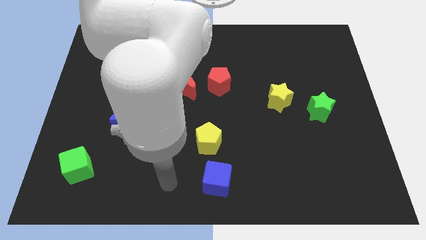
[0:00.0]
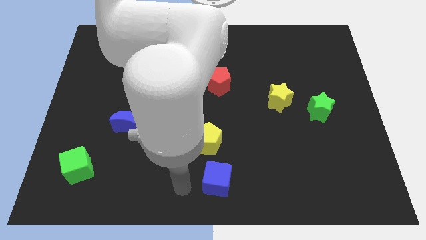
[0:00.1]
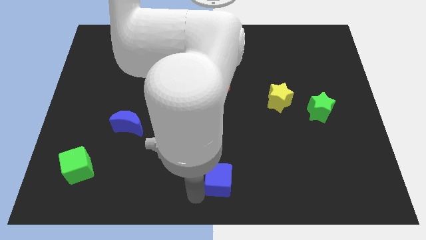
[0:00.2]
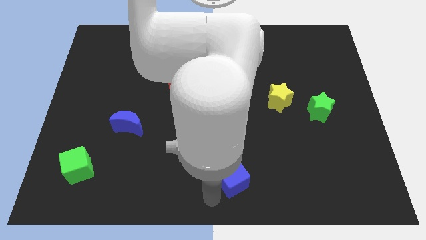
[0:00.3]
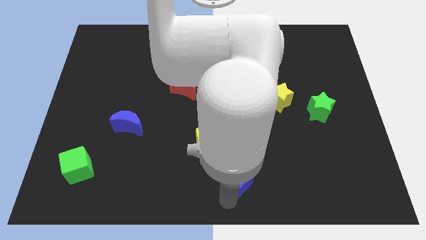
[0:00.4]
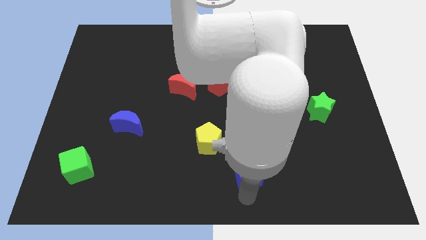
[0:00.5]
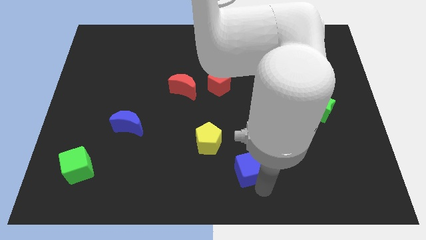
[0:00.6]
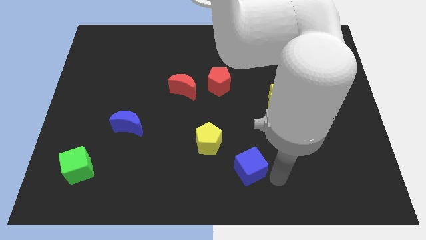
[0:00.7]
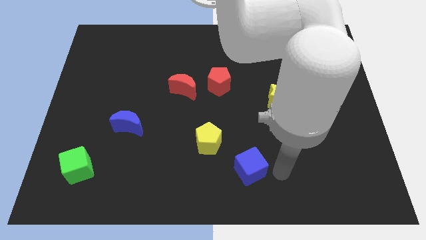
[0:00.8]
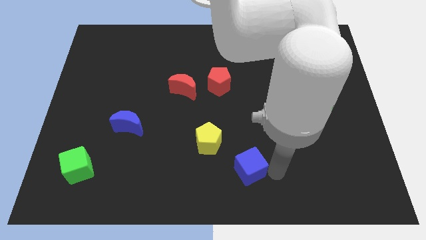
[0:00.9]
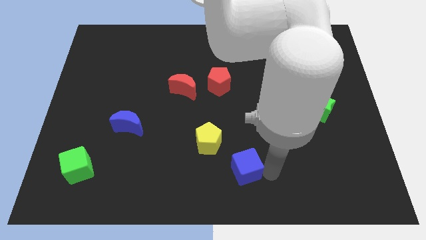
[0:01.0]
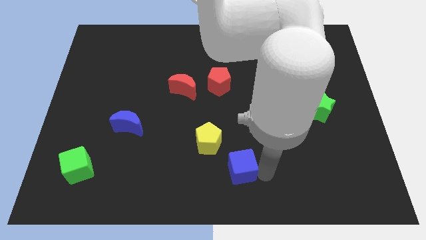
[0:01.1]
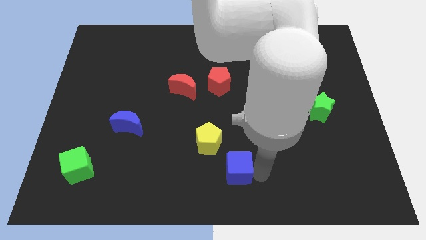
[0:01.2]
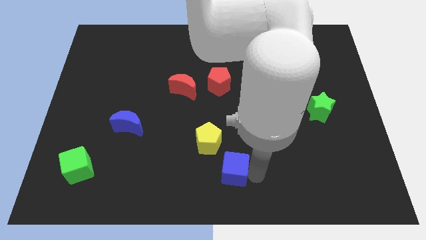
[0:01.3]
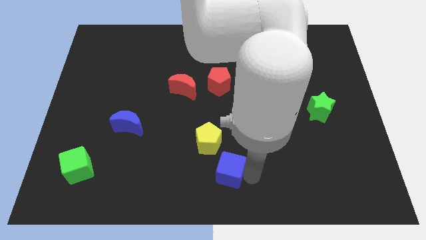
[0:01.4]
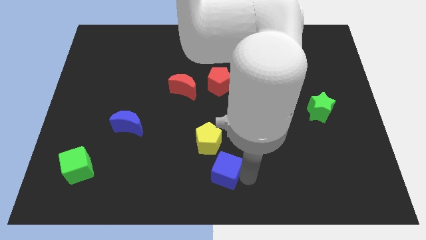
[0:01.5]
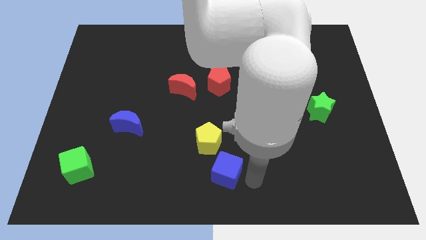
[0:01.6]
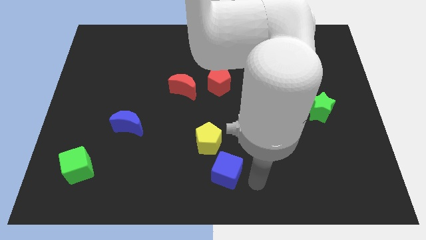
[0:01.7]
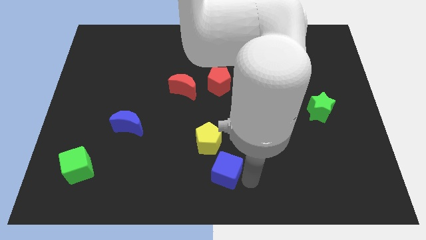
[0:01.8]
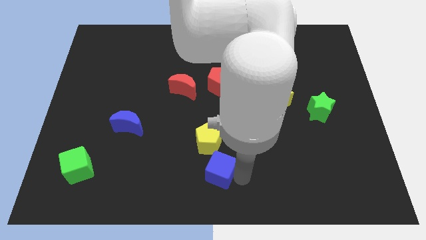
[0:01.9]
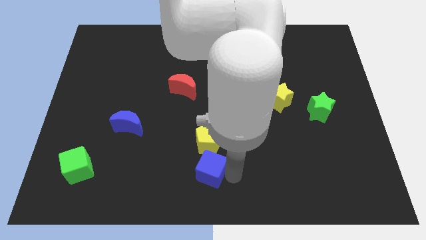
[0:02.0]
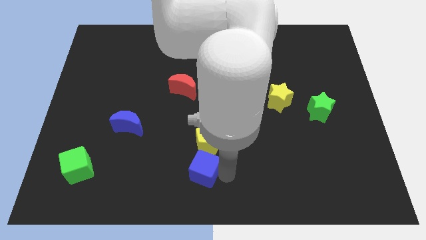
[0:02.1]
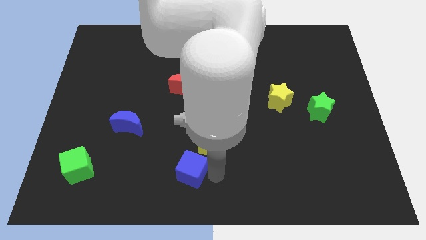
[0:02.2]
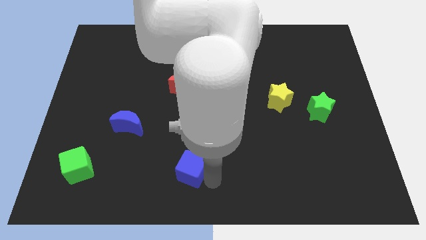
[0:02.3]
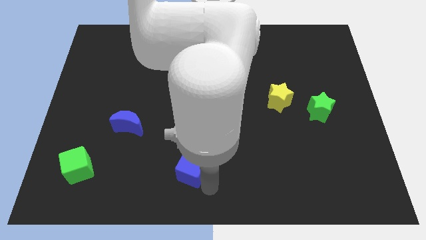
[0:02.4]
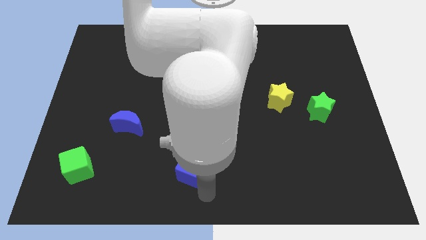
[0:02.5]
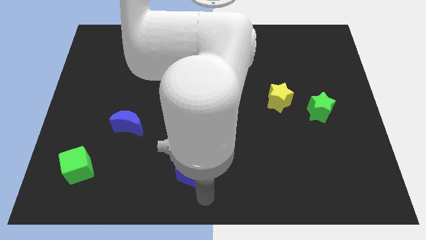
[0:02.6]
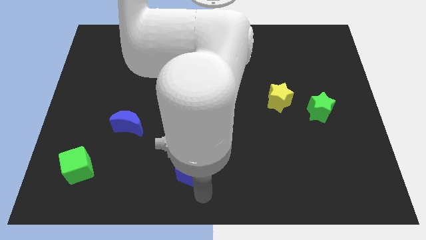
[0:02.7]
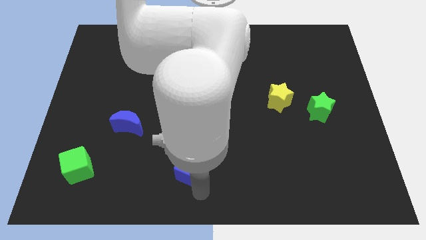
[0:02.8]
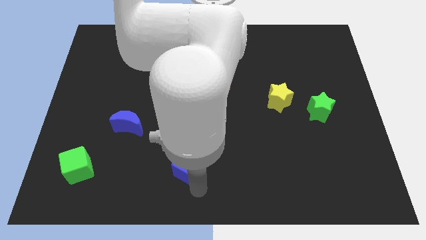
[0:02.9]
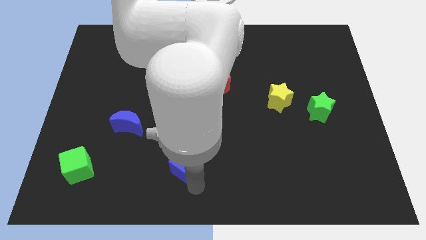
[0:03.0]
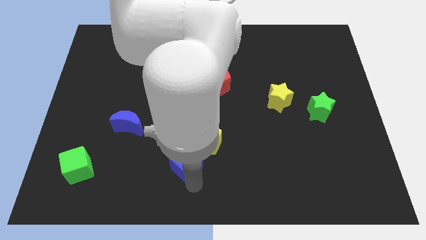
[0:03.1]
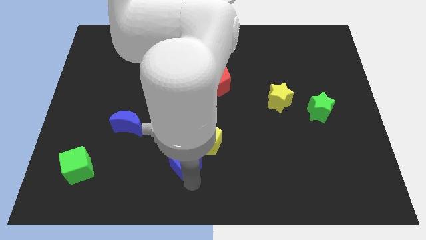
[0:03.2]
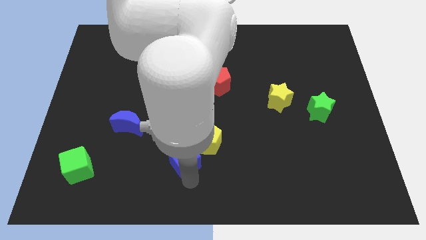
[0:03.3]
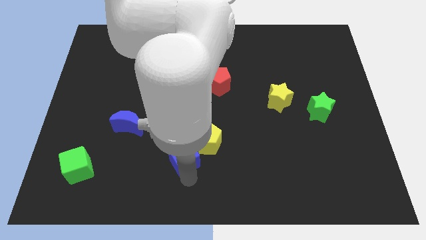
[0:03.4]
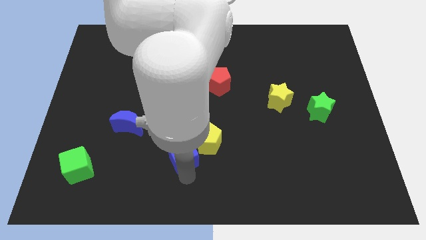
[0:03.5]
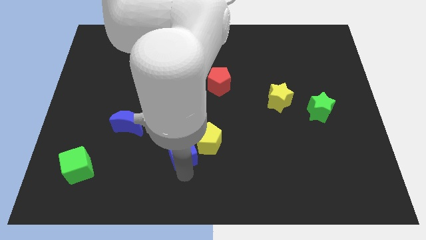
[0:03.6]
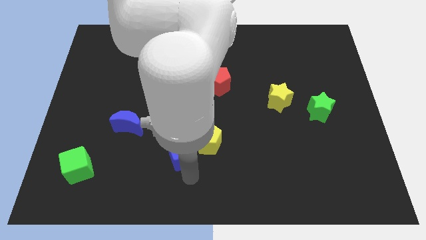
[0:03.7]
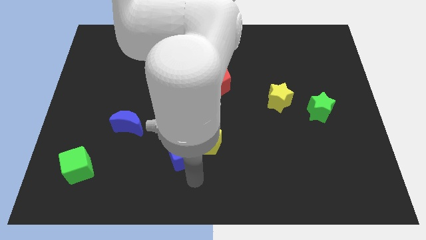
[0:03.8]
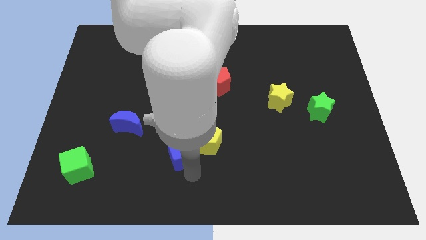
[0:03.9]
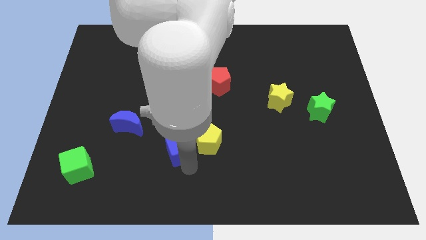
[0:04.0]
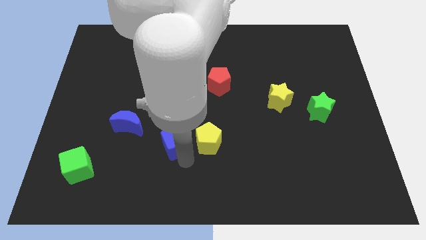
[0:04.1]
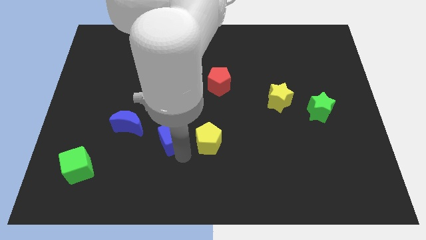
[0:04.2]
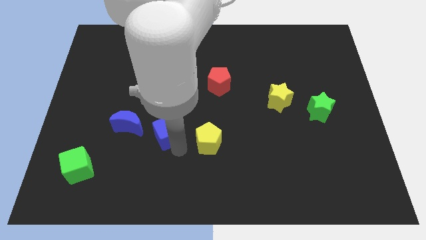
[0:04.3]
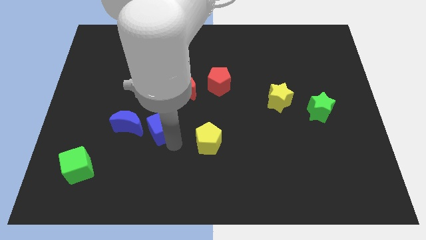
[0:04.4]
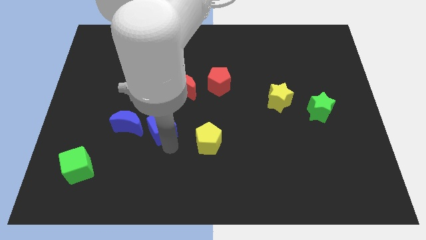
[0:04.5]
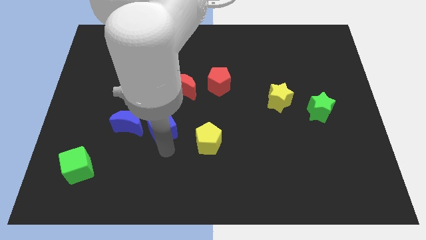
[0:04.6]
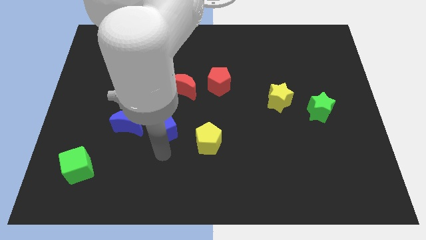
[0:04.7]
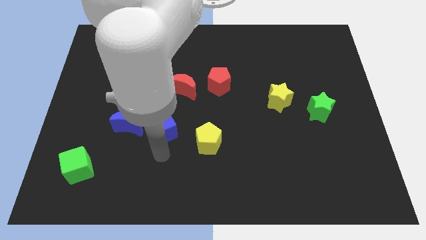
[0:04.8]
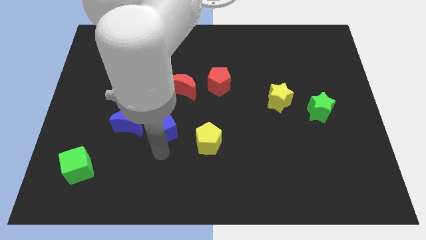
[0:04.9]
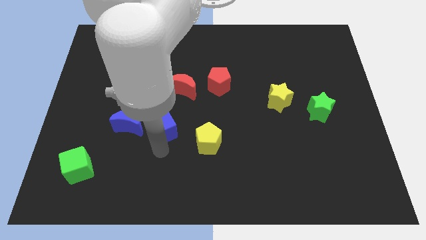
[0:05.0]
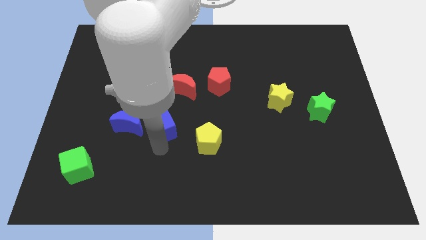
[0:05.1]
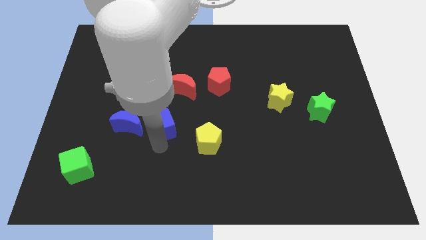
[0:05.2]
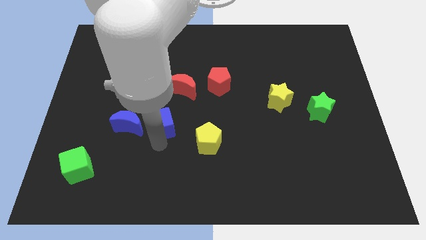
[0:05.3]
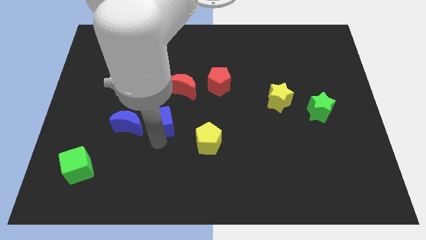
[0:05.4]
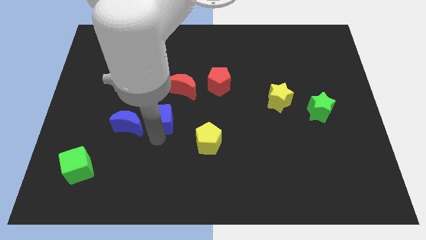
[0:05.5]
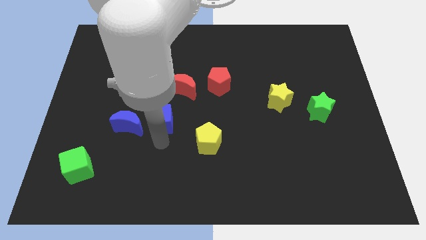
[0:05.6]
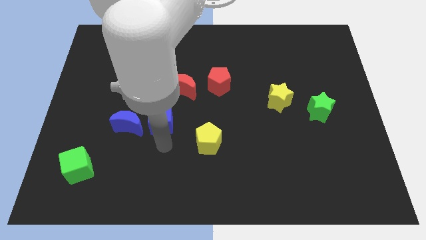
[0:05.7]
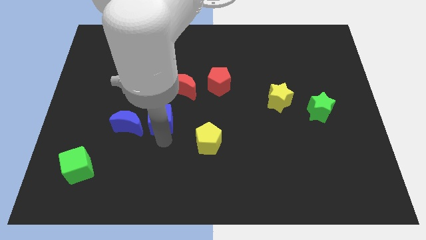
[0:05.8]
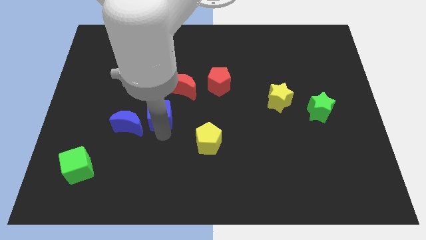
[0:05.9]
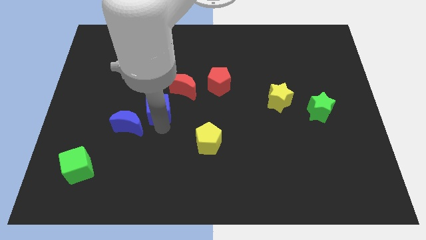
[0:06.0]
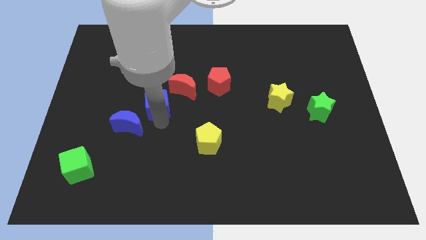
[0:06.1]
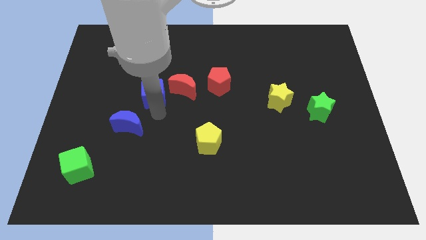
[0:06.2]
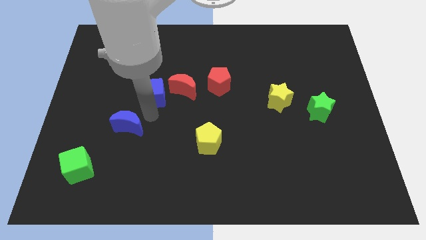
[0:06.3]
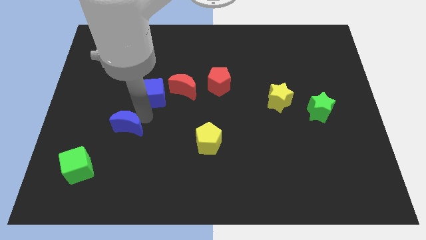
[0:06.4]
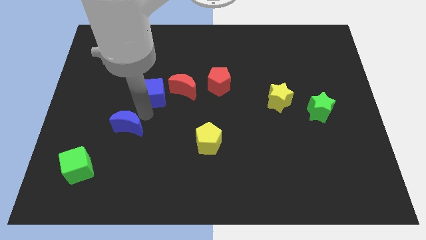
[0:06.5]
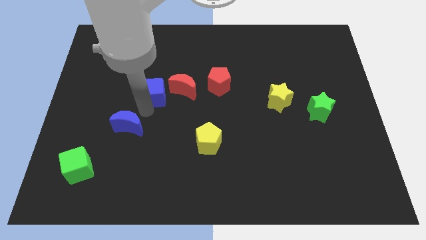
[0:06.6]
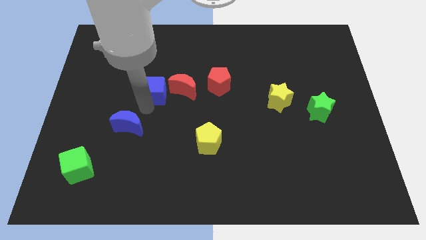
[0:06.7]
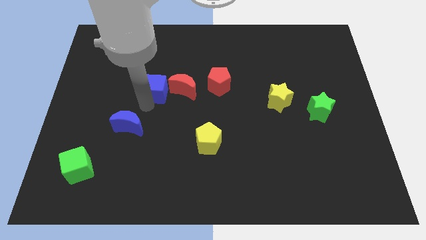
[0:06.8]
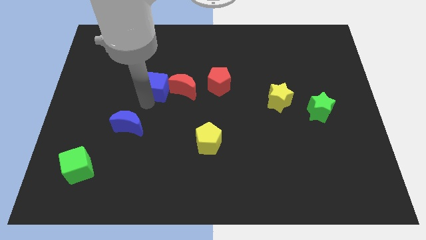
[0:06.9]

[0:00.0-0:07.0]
move the blue cube to the top left side of the red moon
